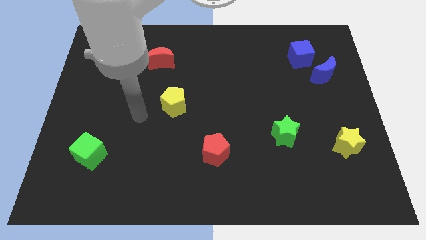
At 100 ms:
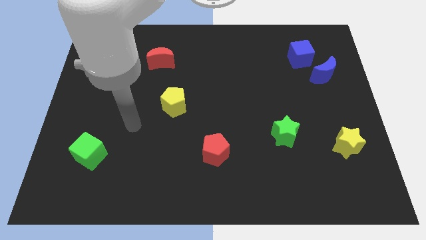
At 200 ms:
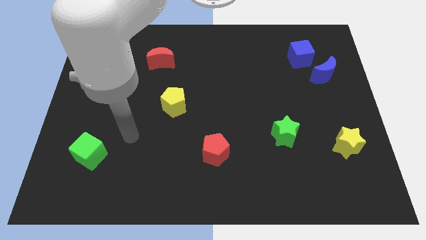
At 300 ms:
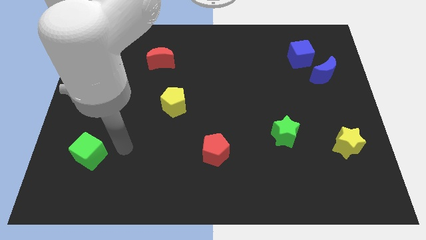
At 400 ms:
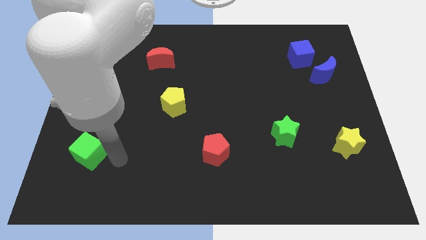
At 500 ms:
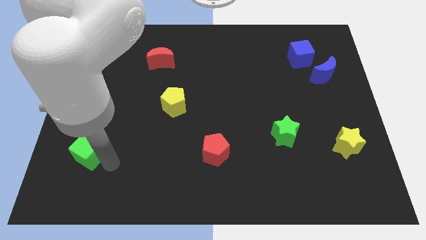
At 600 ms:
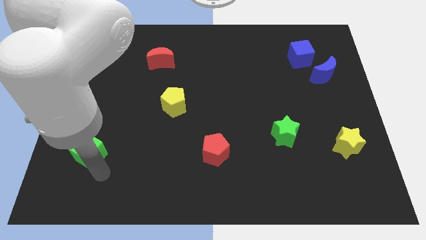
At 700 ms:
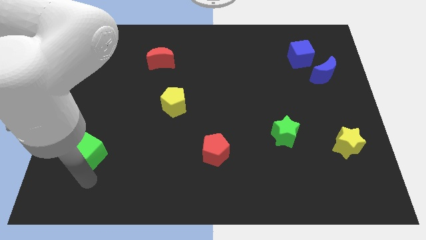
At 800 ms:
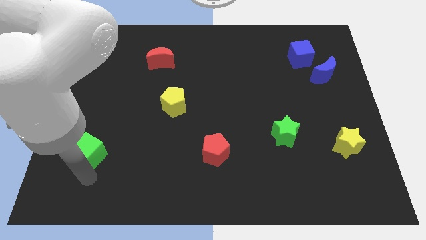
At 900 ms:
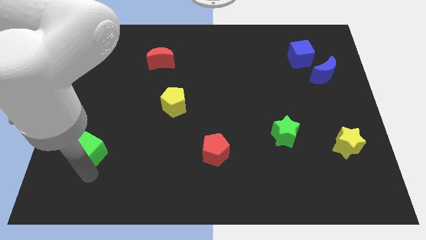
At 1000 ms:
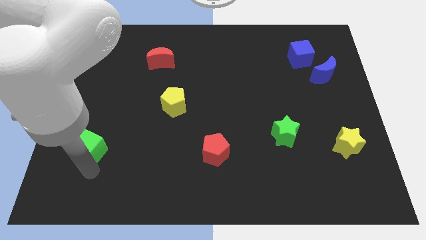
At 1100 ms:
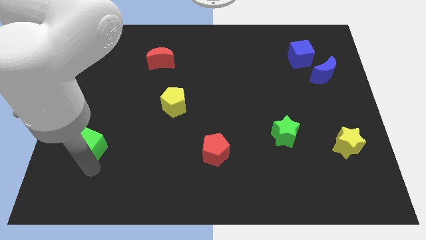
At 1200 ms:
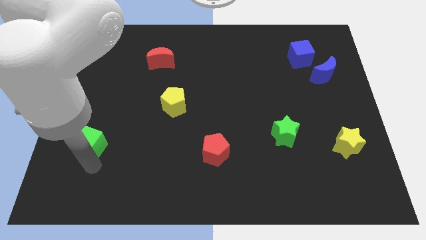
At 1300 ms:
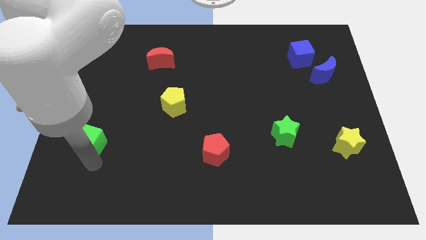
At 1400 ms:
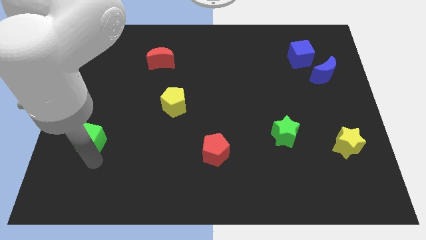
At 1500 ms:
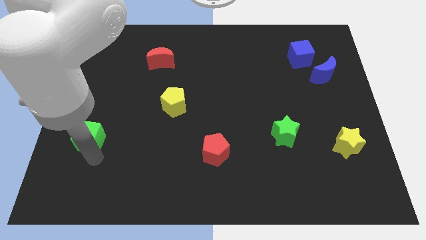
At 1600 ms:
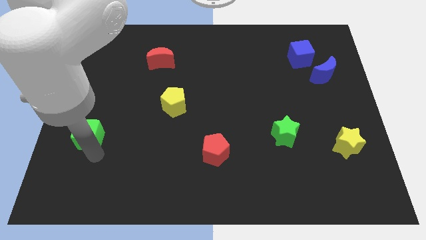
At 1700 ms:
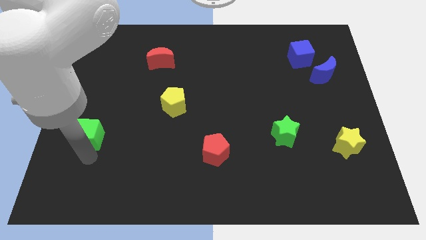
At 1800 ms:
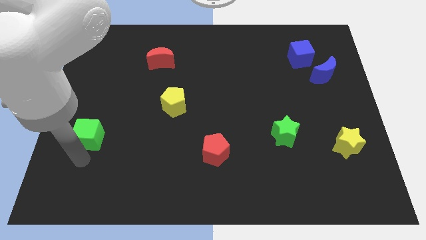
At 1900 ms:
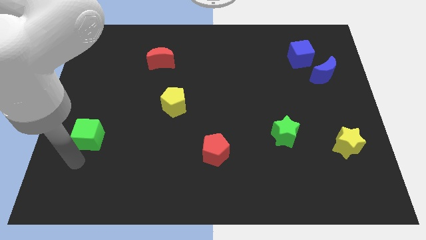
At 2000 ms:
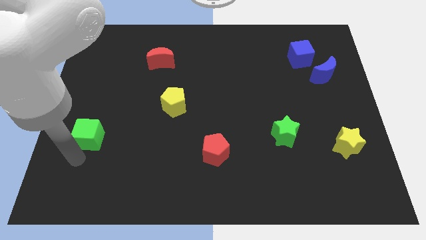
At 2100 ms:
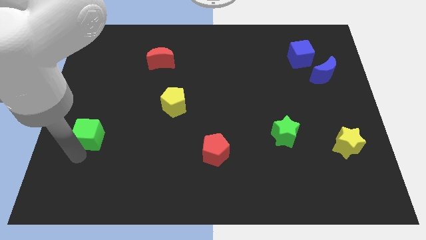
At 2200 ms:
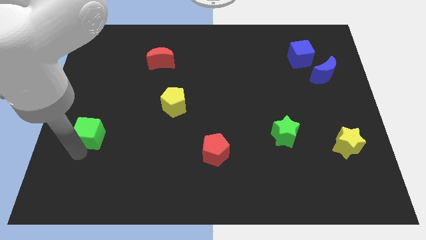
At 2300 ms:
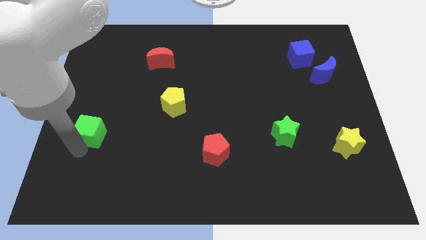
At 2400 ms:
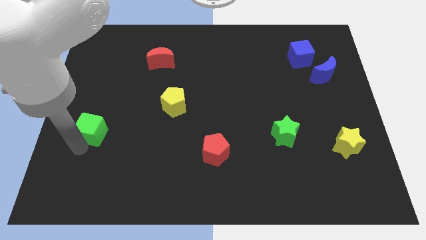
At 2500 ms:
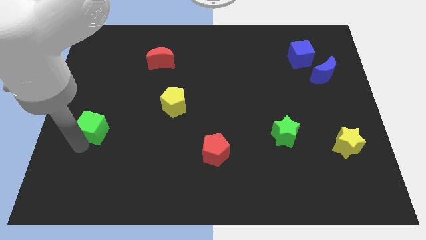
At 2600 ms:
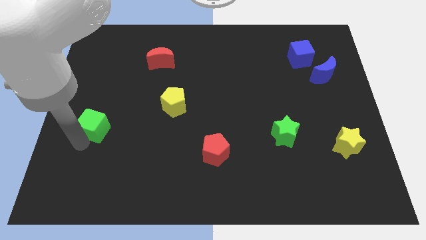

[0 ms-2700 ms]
slide the green cube a little bit up

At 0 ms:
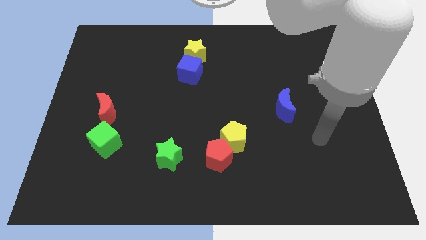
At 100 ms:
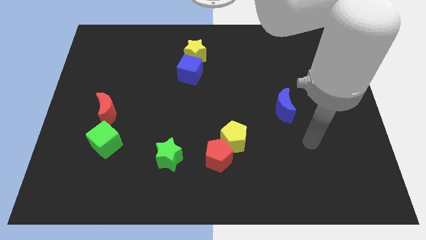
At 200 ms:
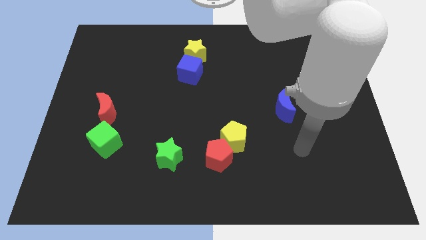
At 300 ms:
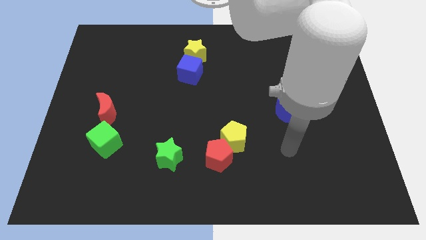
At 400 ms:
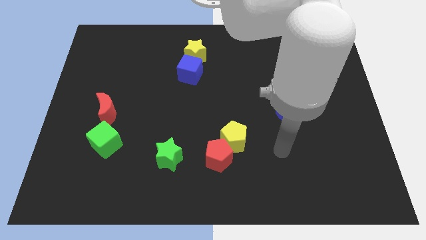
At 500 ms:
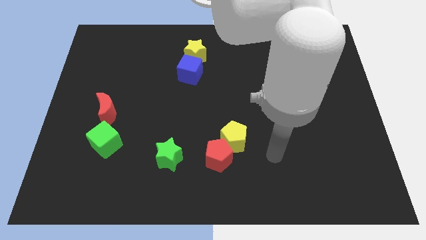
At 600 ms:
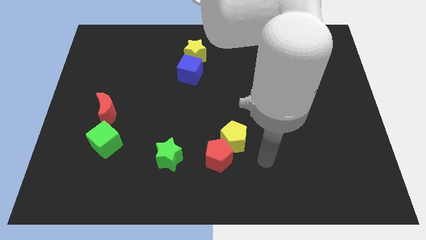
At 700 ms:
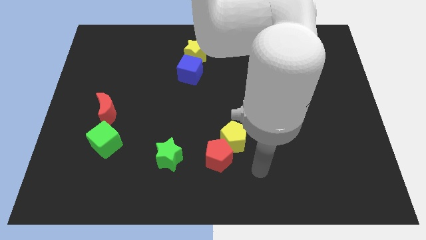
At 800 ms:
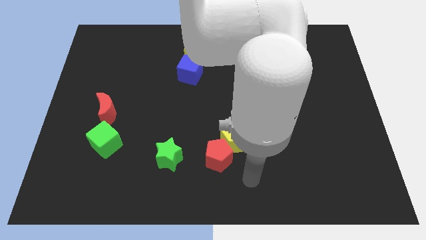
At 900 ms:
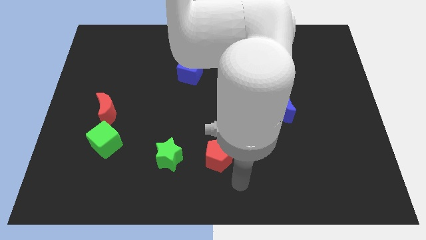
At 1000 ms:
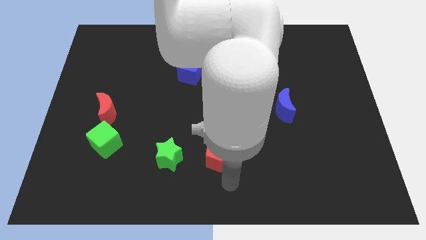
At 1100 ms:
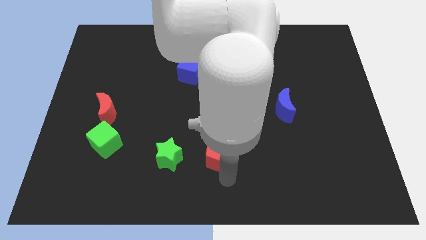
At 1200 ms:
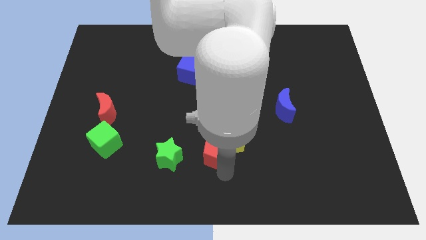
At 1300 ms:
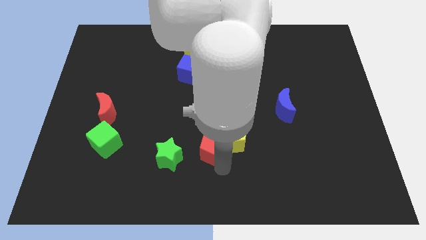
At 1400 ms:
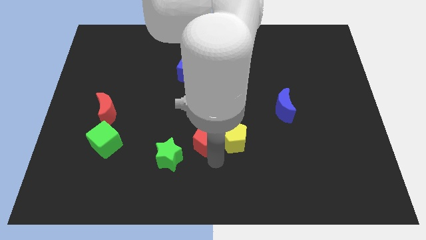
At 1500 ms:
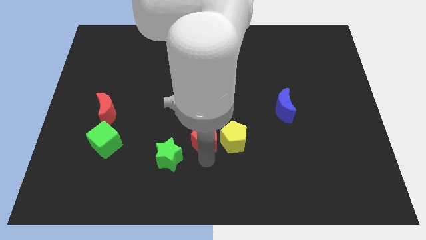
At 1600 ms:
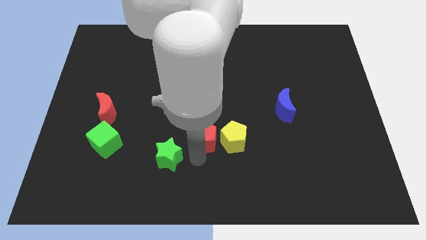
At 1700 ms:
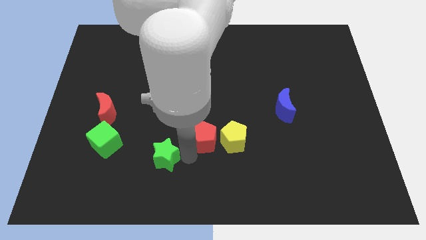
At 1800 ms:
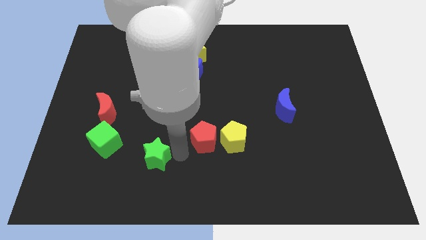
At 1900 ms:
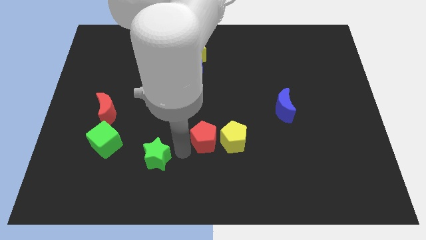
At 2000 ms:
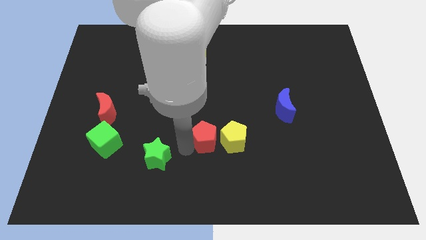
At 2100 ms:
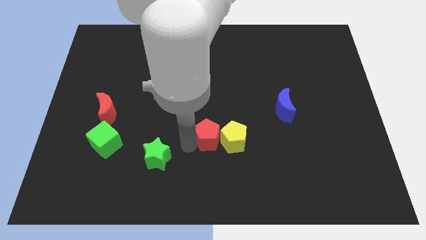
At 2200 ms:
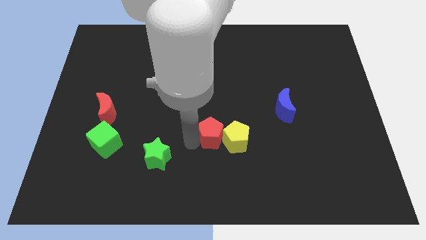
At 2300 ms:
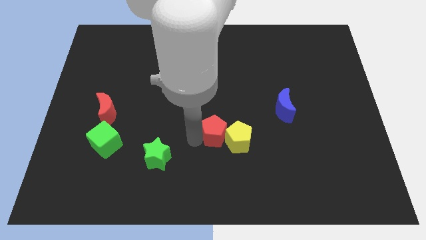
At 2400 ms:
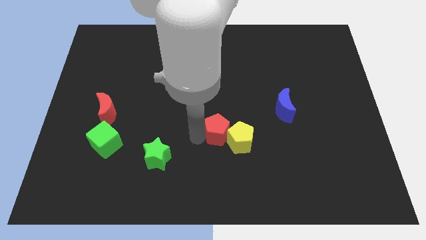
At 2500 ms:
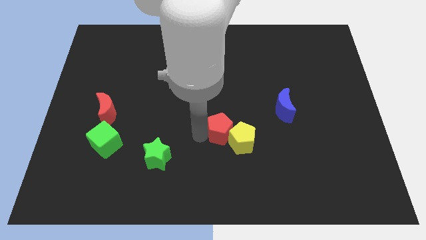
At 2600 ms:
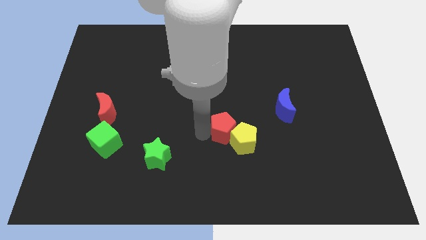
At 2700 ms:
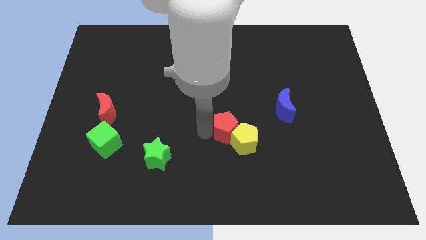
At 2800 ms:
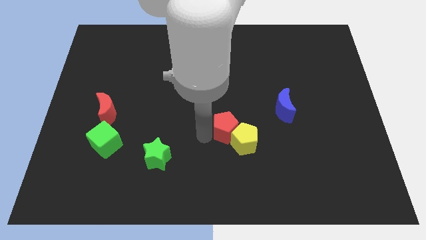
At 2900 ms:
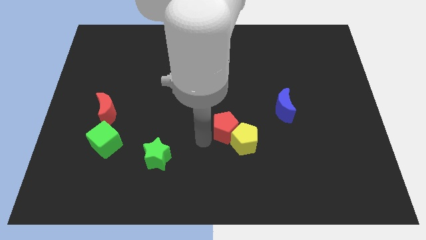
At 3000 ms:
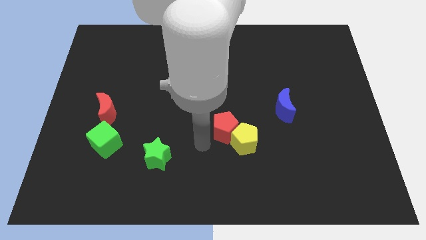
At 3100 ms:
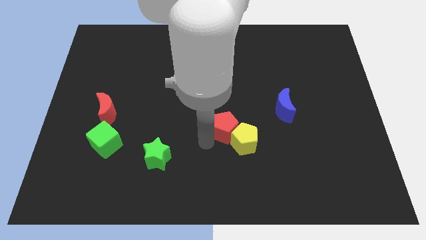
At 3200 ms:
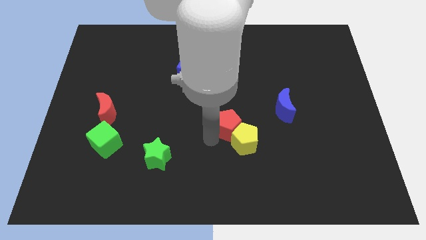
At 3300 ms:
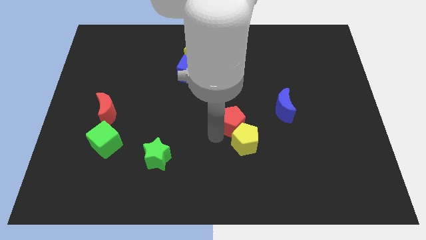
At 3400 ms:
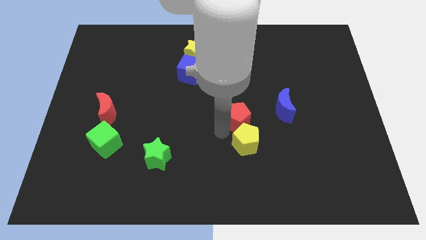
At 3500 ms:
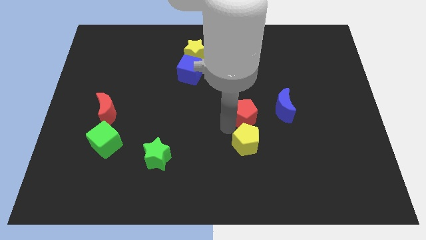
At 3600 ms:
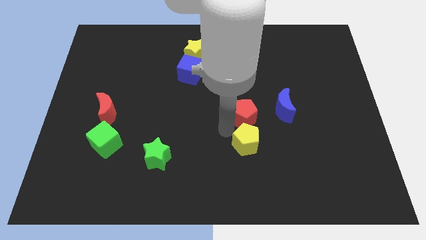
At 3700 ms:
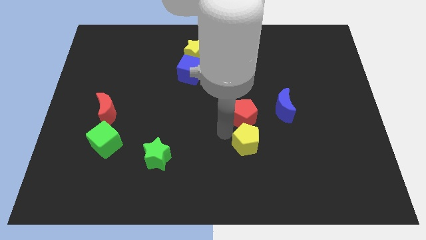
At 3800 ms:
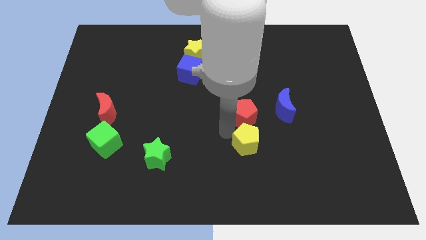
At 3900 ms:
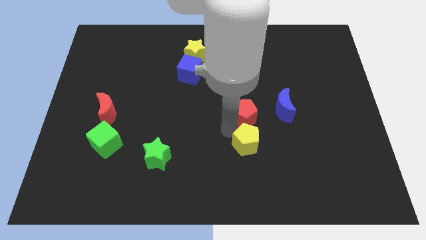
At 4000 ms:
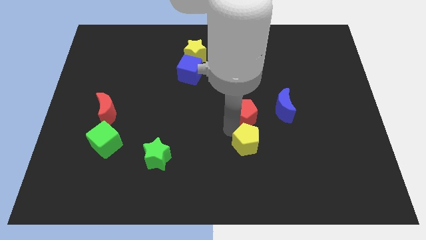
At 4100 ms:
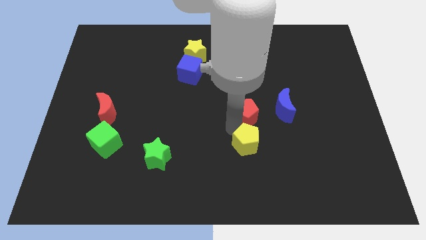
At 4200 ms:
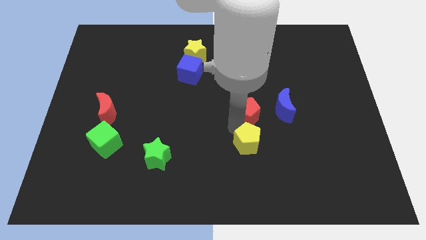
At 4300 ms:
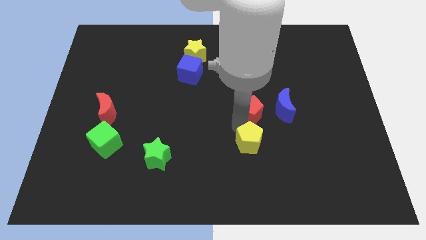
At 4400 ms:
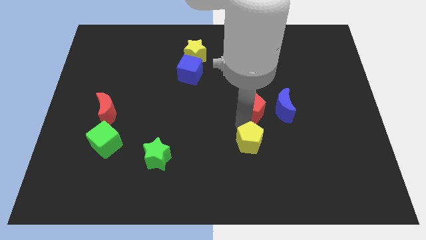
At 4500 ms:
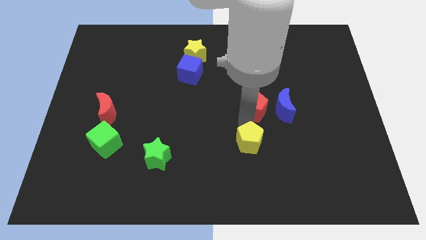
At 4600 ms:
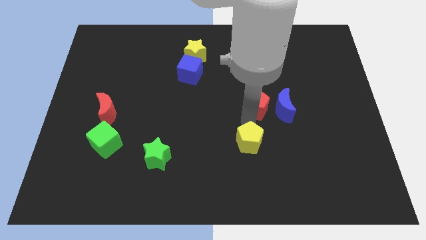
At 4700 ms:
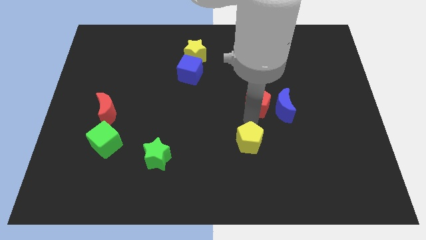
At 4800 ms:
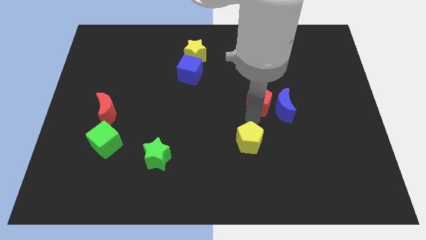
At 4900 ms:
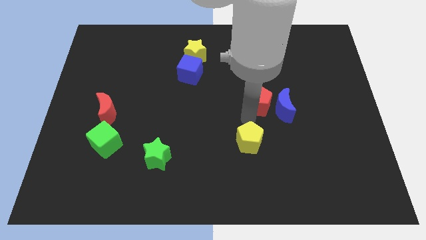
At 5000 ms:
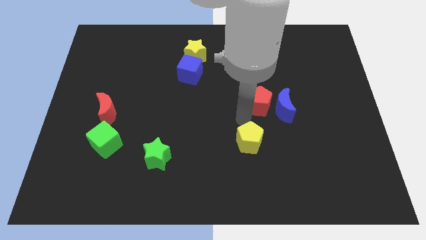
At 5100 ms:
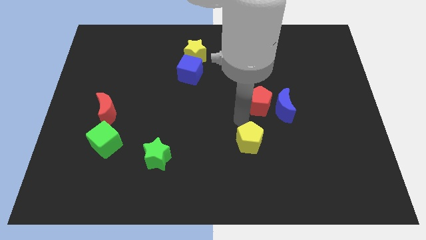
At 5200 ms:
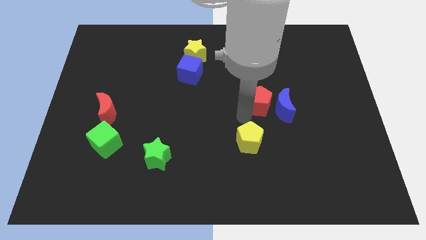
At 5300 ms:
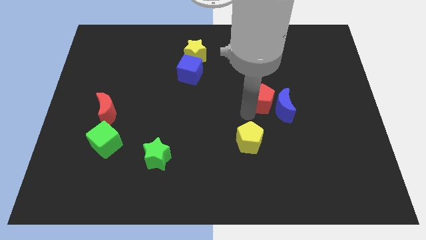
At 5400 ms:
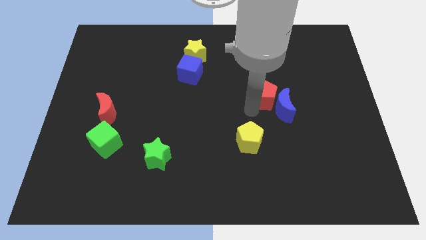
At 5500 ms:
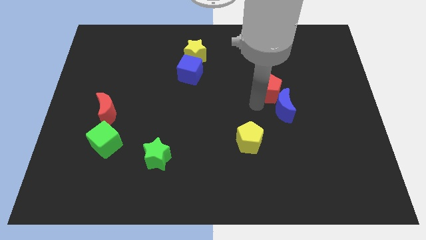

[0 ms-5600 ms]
slide the red pentagon diagonally upwards and right
